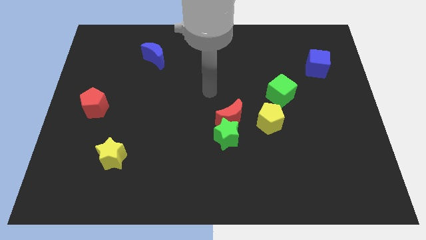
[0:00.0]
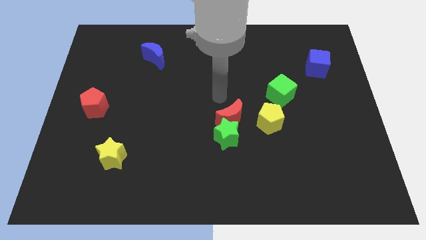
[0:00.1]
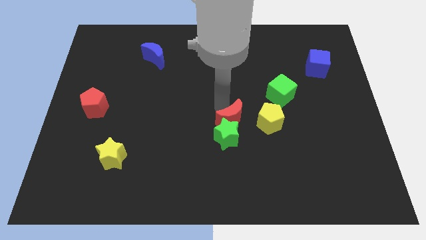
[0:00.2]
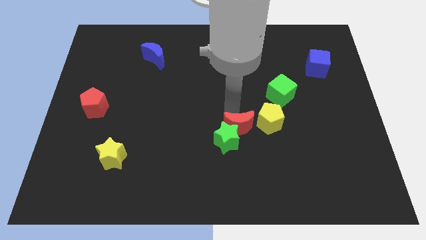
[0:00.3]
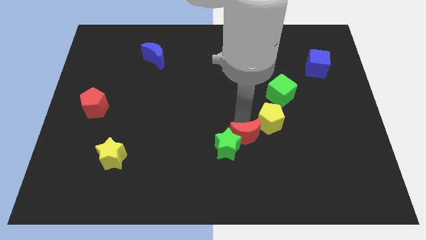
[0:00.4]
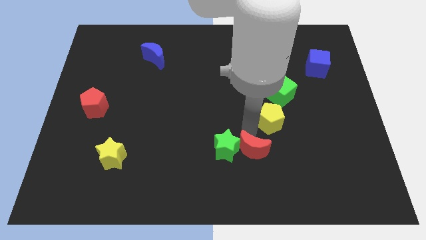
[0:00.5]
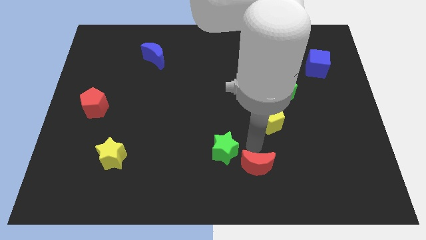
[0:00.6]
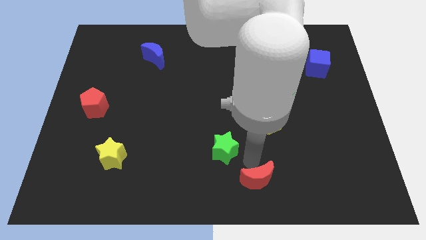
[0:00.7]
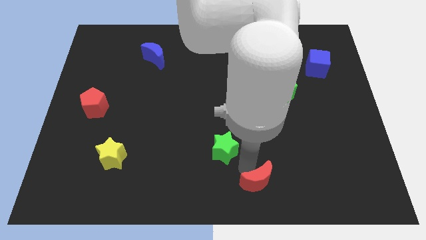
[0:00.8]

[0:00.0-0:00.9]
separate the green star from the red moon

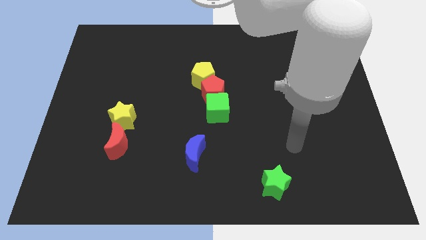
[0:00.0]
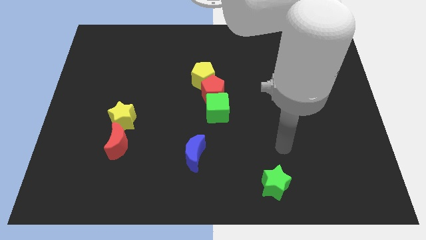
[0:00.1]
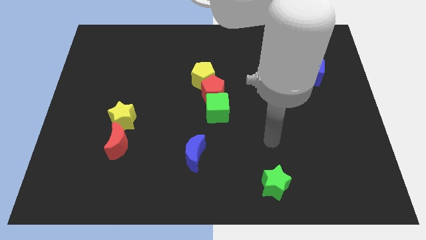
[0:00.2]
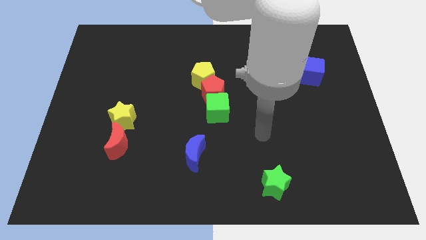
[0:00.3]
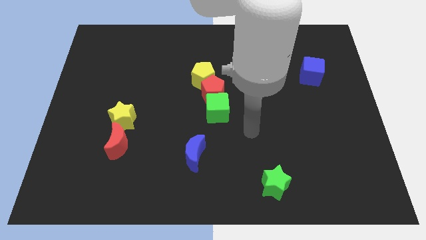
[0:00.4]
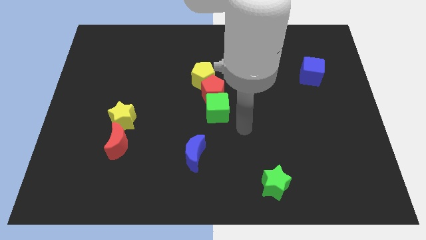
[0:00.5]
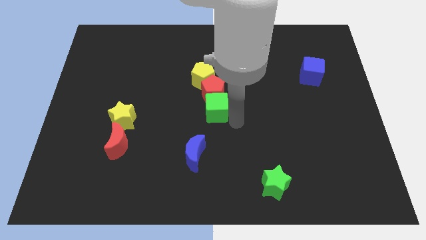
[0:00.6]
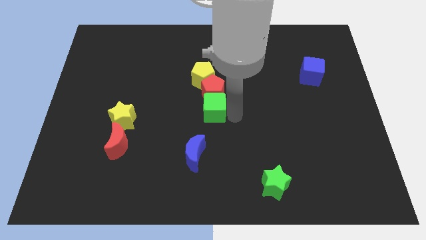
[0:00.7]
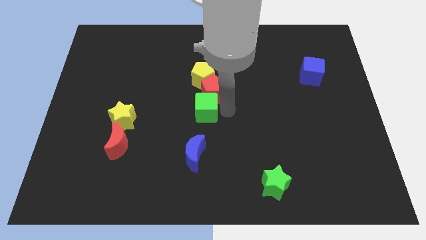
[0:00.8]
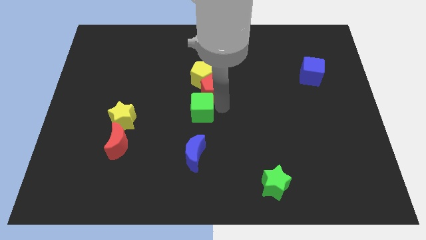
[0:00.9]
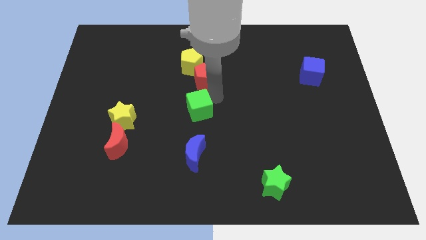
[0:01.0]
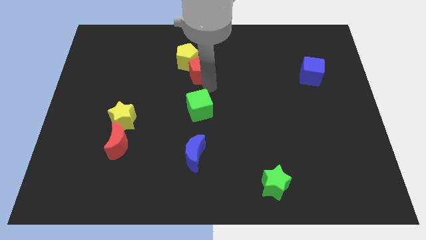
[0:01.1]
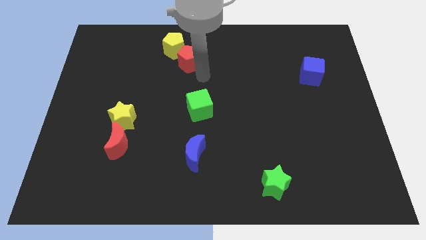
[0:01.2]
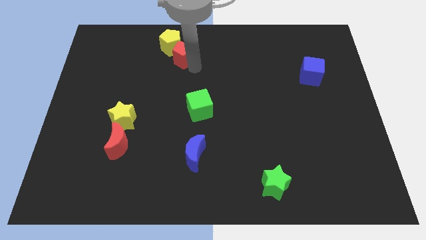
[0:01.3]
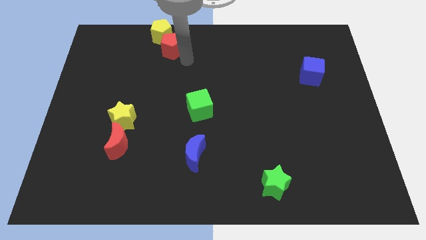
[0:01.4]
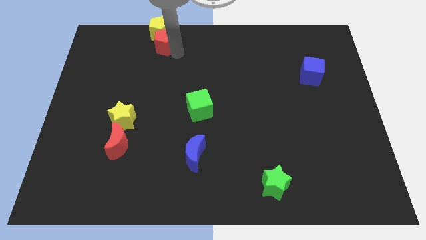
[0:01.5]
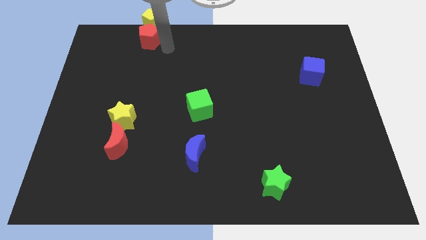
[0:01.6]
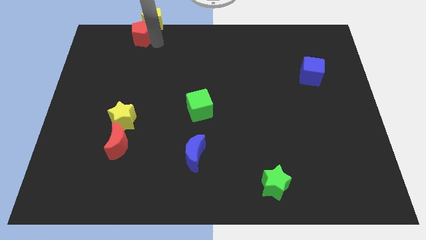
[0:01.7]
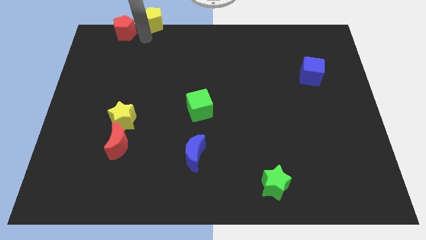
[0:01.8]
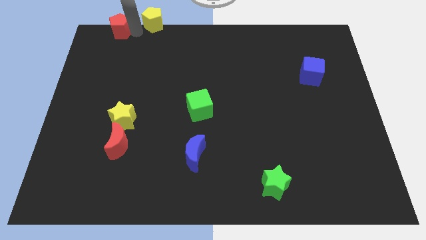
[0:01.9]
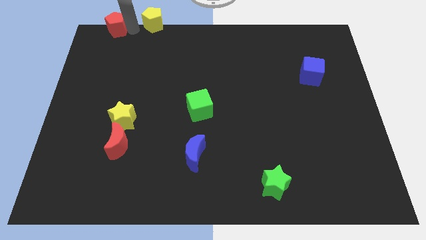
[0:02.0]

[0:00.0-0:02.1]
separate the yellow pentagon from the red pentagon

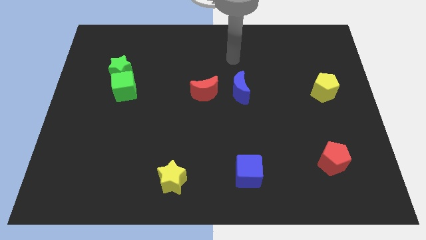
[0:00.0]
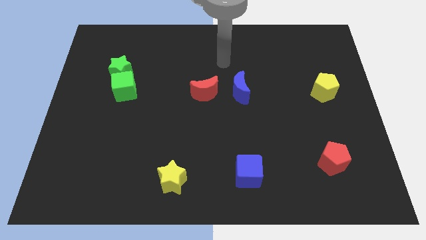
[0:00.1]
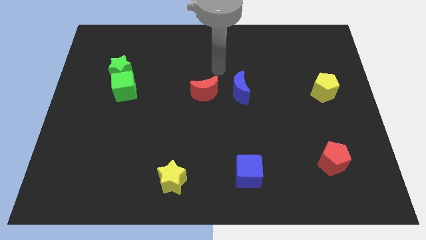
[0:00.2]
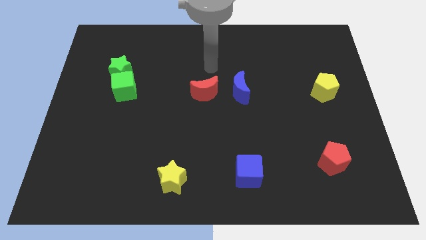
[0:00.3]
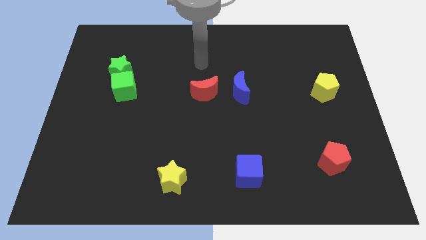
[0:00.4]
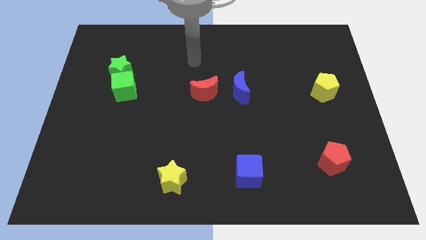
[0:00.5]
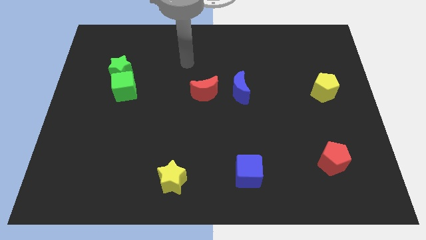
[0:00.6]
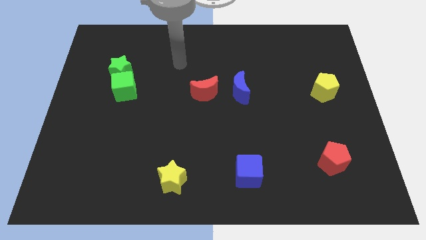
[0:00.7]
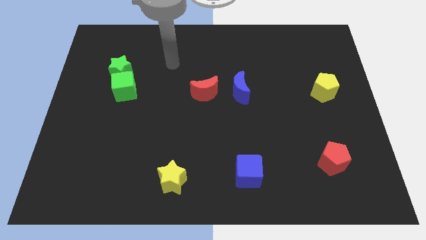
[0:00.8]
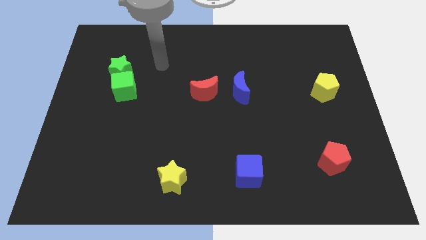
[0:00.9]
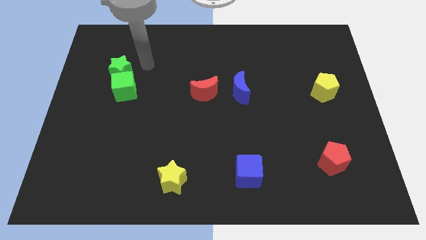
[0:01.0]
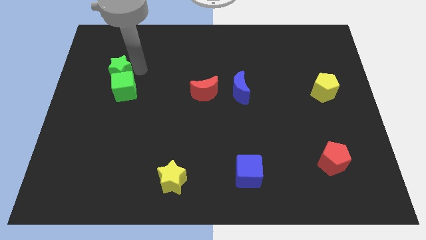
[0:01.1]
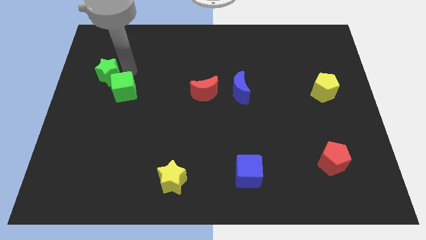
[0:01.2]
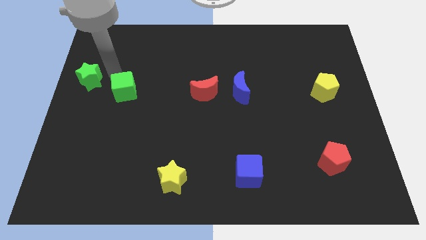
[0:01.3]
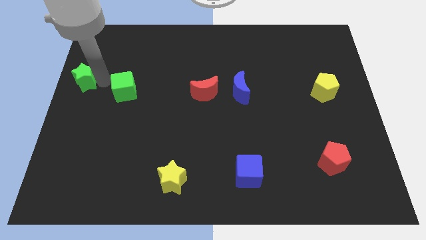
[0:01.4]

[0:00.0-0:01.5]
pull the green cube apart from the green star

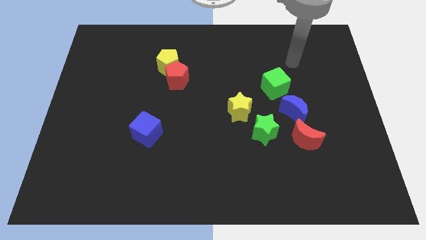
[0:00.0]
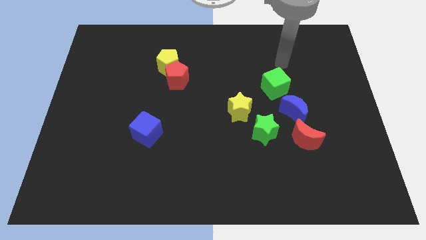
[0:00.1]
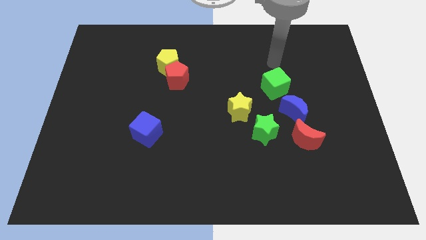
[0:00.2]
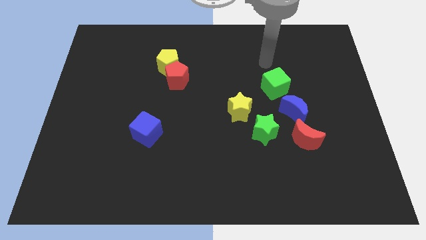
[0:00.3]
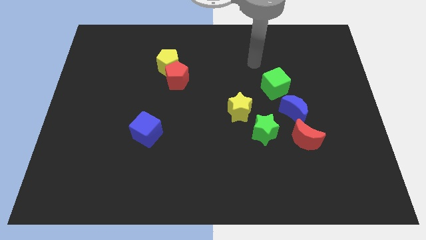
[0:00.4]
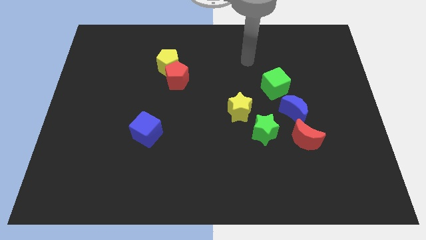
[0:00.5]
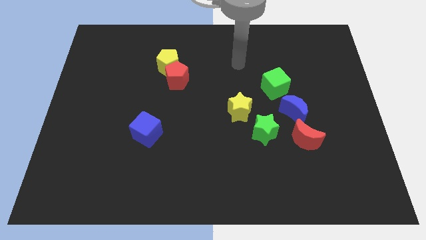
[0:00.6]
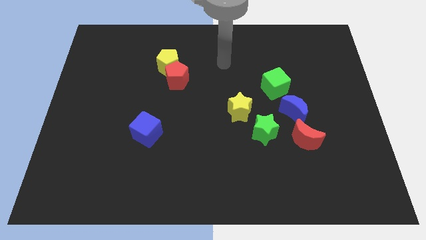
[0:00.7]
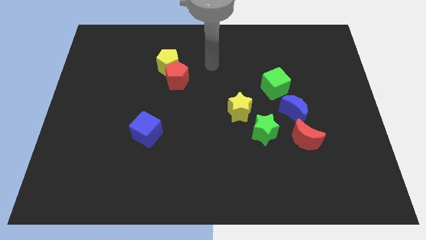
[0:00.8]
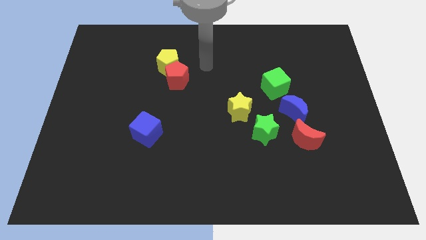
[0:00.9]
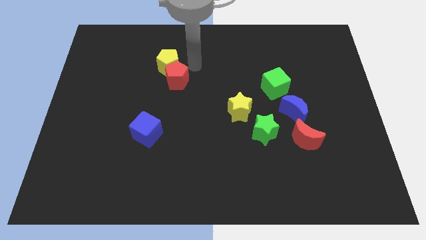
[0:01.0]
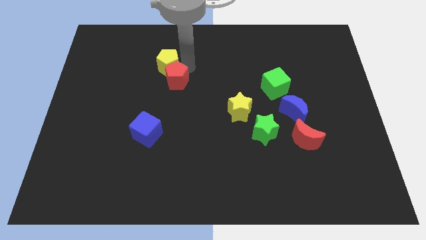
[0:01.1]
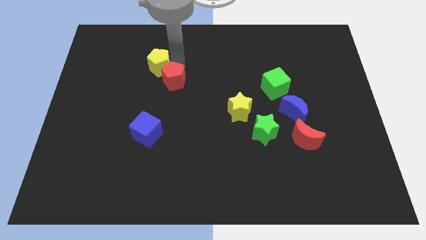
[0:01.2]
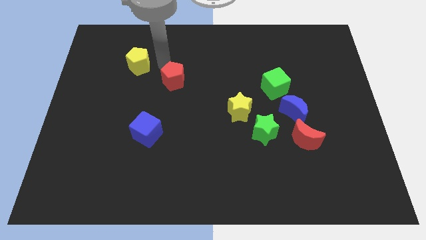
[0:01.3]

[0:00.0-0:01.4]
separate the red pentagon from the yellow pentagon

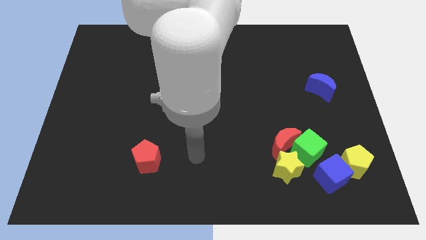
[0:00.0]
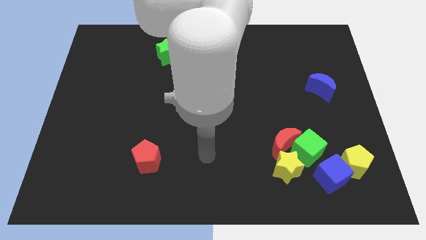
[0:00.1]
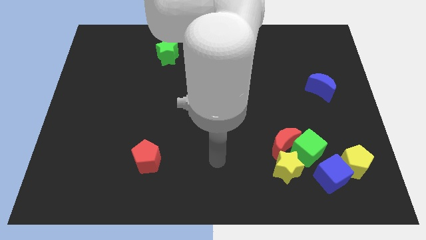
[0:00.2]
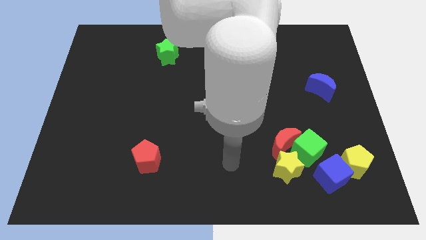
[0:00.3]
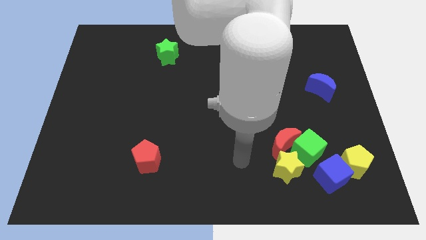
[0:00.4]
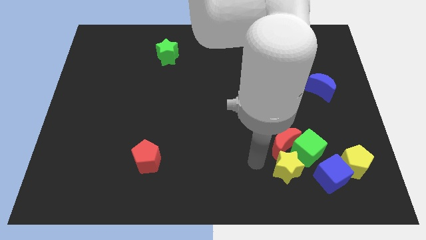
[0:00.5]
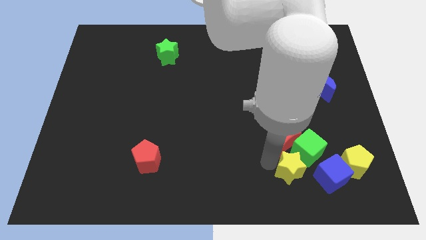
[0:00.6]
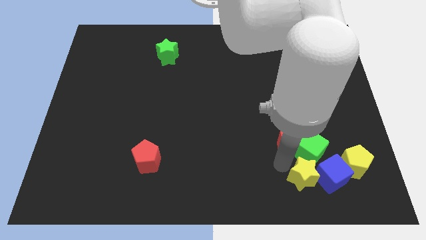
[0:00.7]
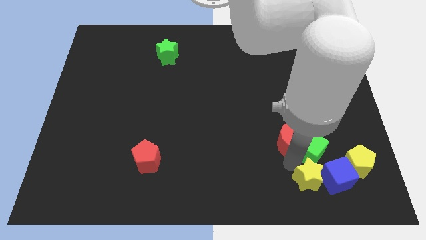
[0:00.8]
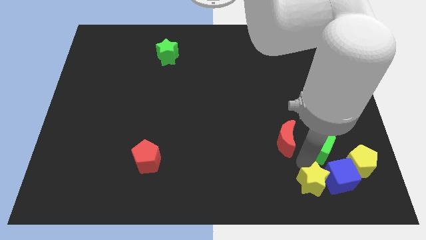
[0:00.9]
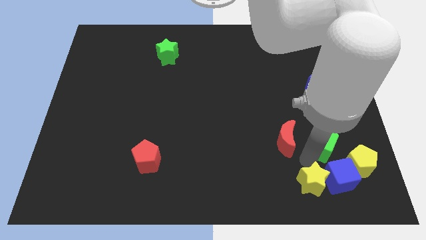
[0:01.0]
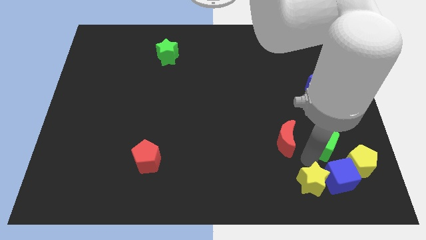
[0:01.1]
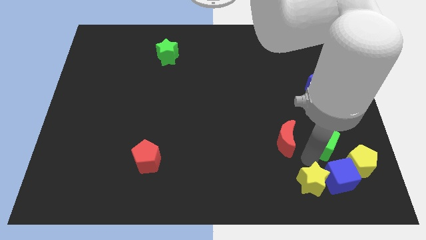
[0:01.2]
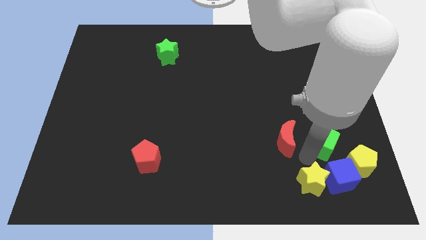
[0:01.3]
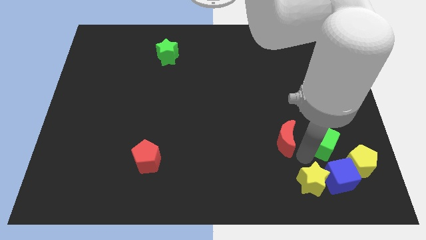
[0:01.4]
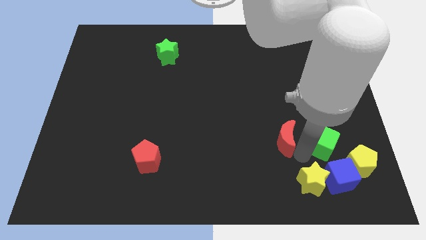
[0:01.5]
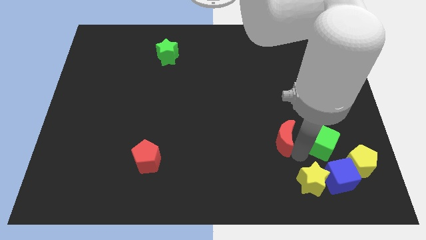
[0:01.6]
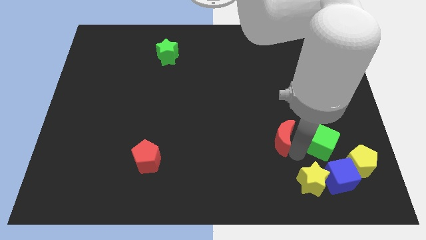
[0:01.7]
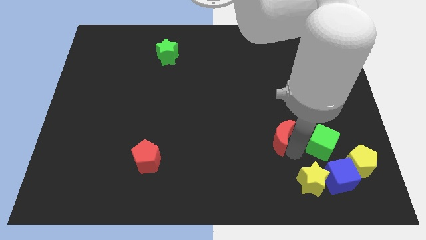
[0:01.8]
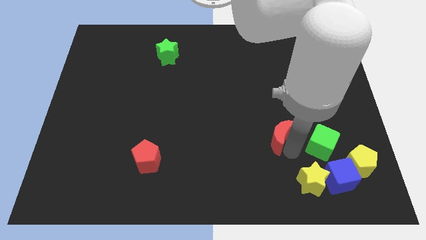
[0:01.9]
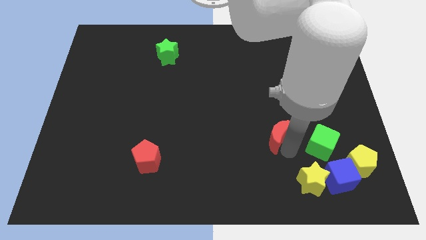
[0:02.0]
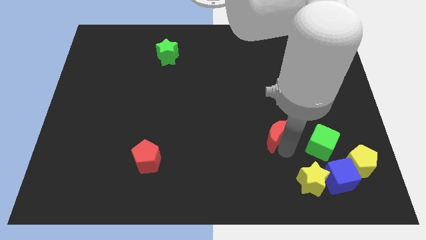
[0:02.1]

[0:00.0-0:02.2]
move the red moon away from the green cube and yellow star

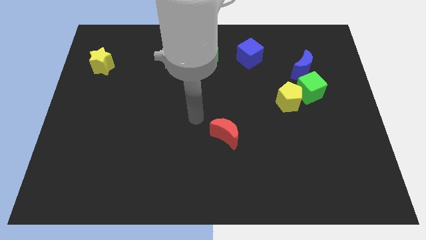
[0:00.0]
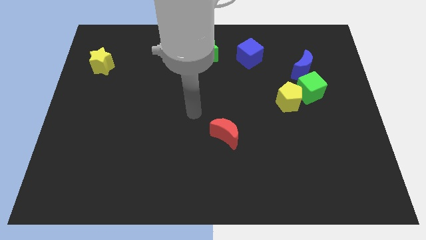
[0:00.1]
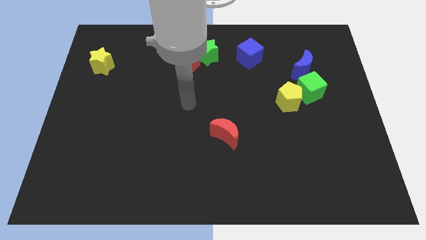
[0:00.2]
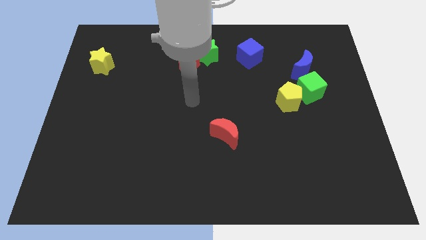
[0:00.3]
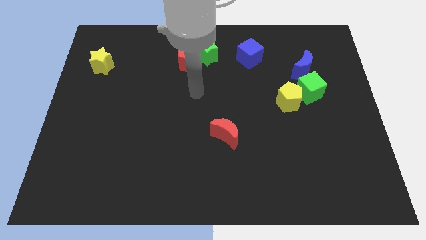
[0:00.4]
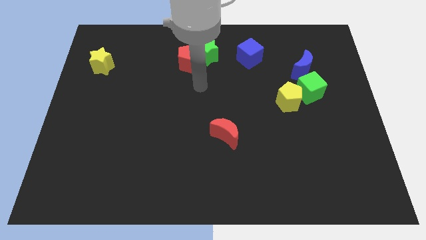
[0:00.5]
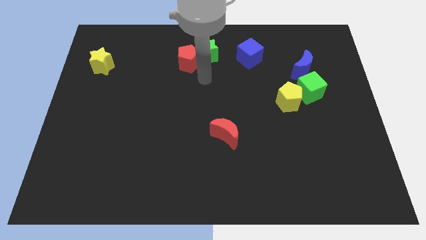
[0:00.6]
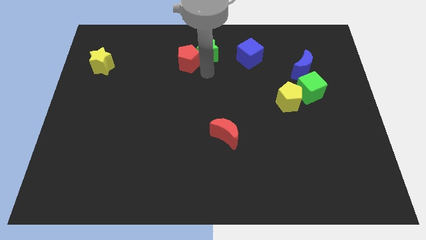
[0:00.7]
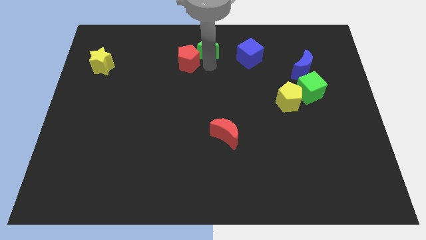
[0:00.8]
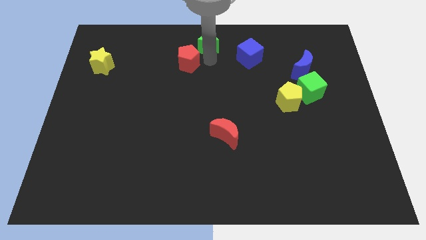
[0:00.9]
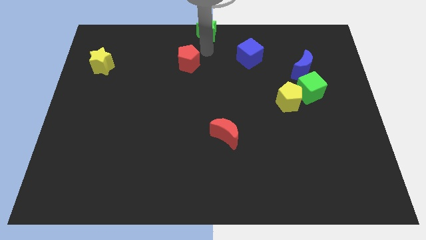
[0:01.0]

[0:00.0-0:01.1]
separate the red pentagon from the green star
